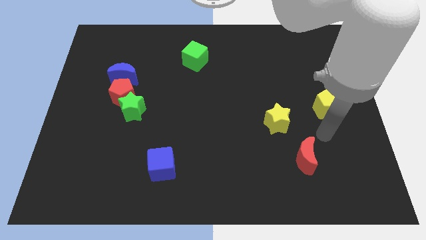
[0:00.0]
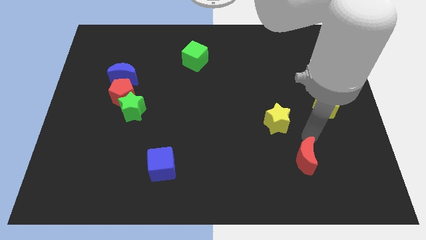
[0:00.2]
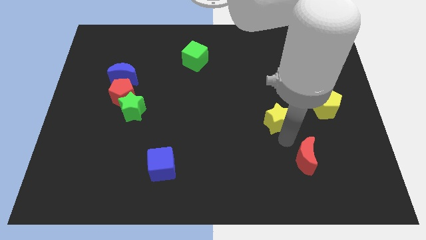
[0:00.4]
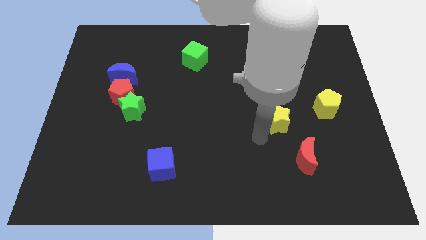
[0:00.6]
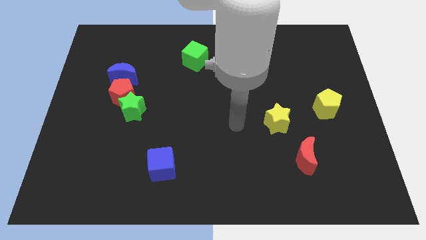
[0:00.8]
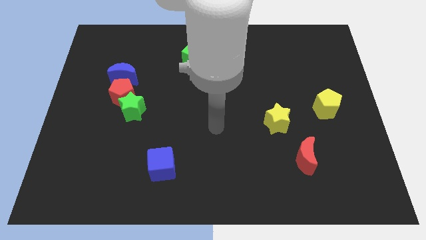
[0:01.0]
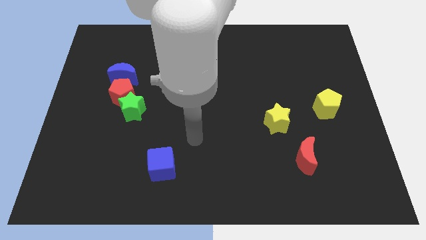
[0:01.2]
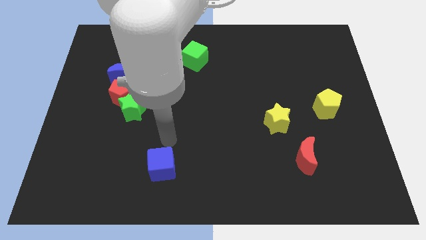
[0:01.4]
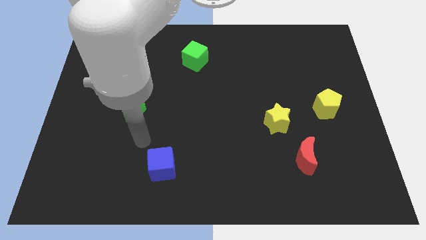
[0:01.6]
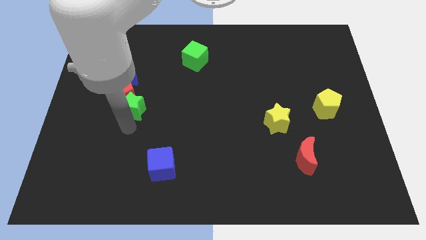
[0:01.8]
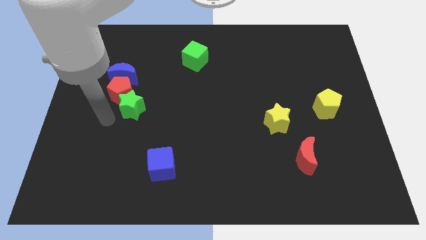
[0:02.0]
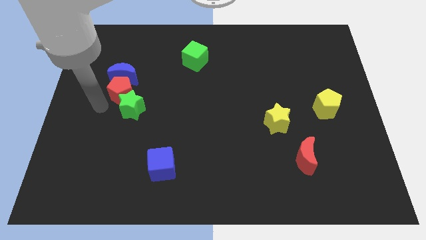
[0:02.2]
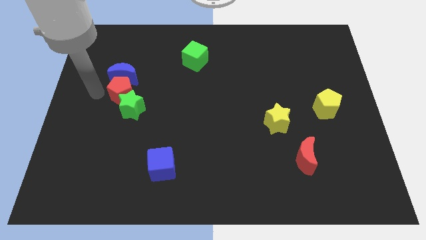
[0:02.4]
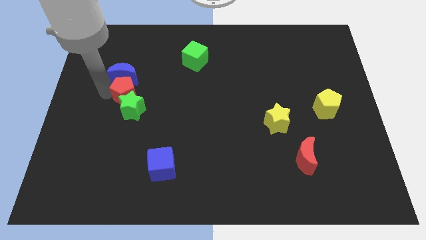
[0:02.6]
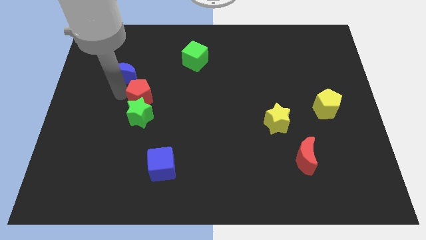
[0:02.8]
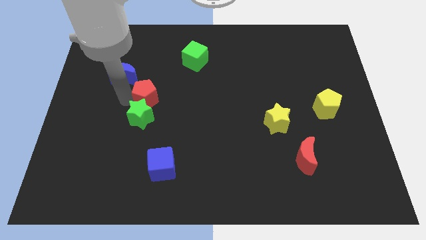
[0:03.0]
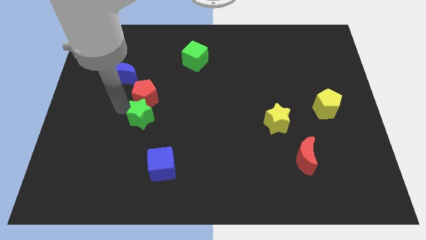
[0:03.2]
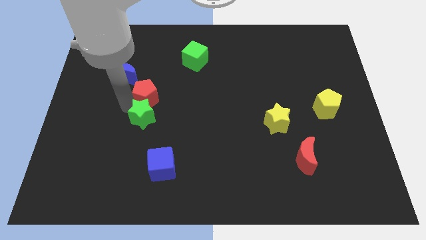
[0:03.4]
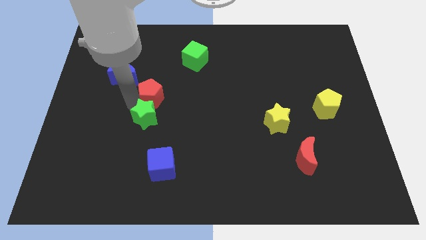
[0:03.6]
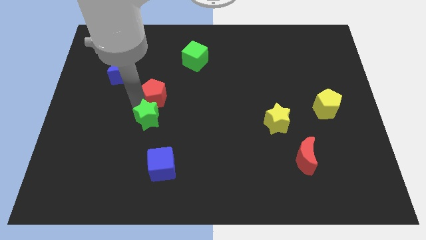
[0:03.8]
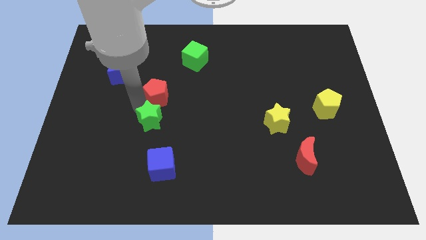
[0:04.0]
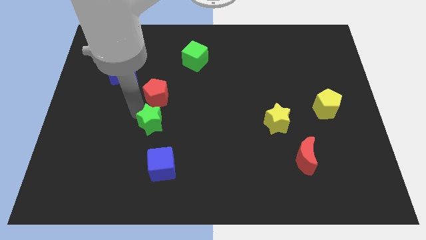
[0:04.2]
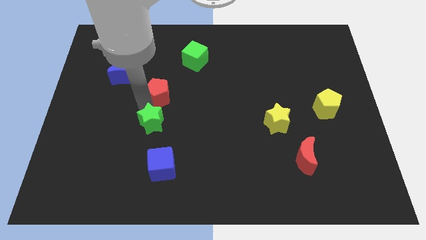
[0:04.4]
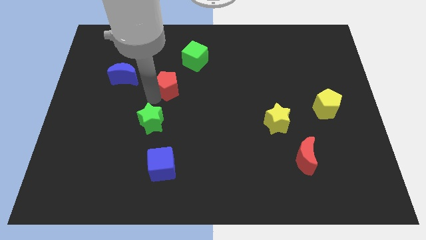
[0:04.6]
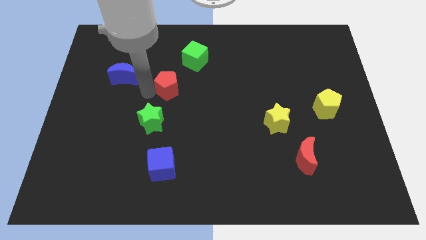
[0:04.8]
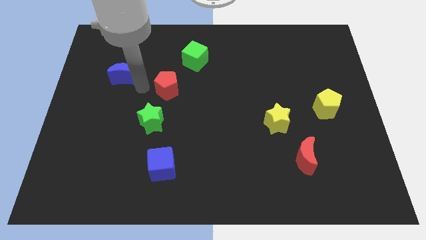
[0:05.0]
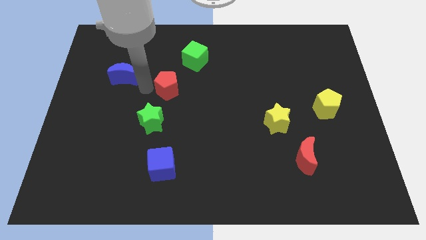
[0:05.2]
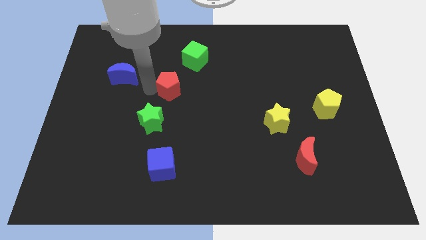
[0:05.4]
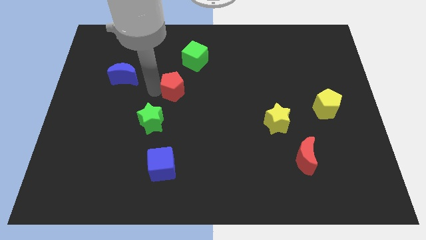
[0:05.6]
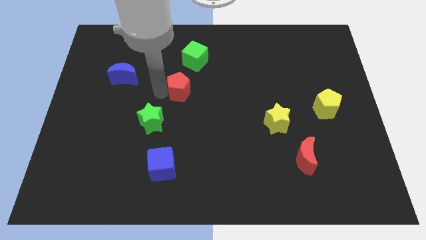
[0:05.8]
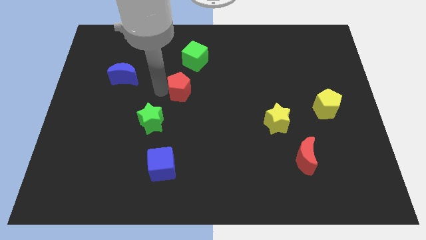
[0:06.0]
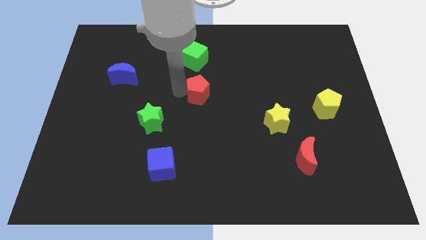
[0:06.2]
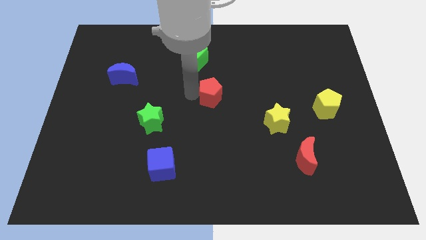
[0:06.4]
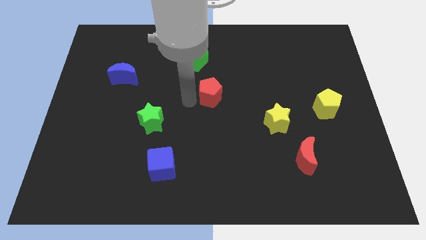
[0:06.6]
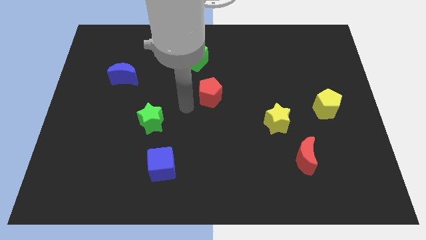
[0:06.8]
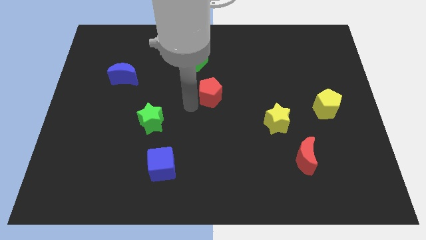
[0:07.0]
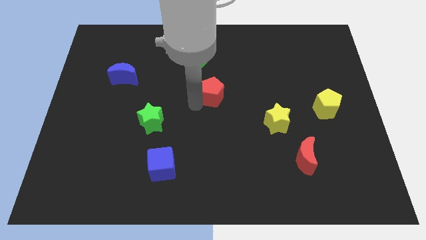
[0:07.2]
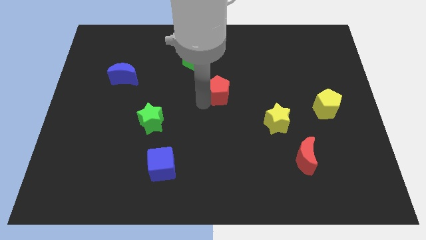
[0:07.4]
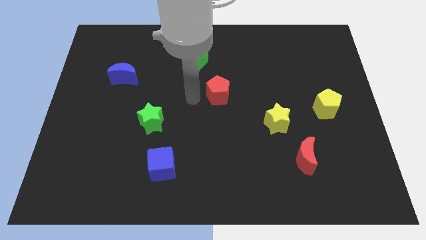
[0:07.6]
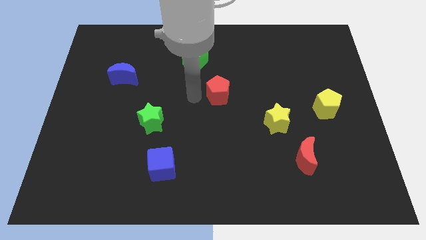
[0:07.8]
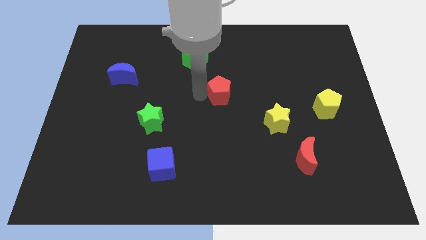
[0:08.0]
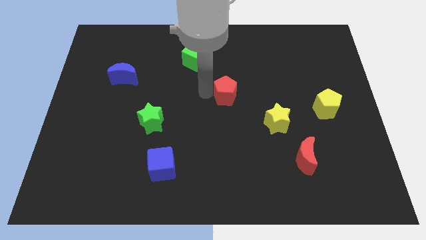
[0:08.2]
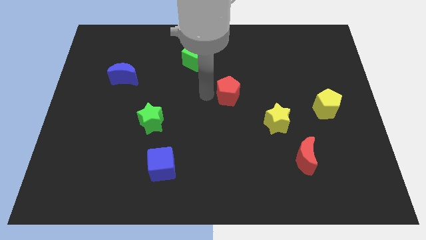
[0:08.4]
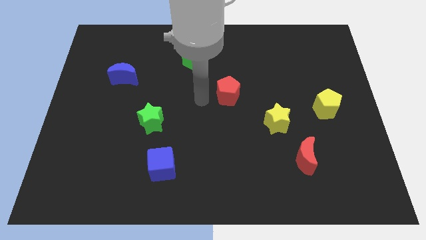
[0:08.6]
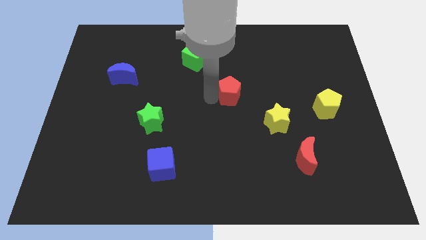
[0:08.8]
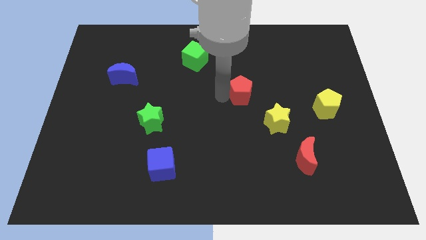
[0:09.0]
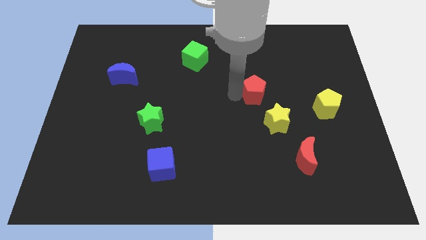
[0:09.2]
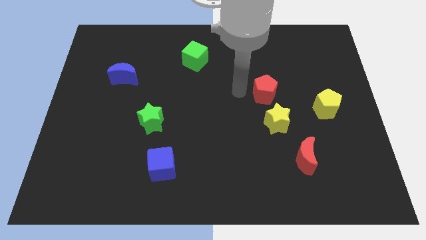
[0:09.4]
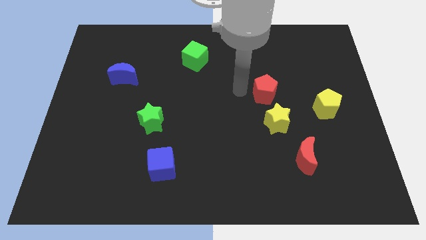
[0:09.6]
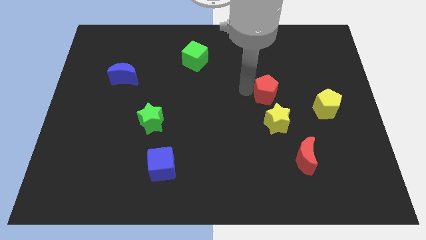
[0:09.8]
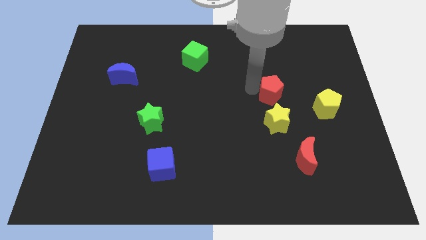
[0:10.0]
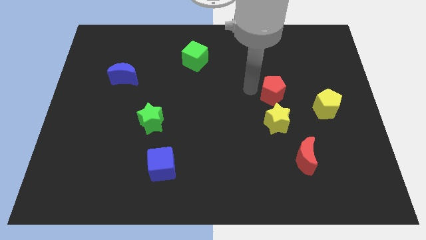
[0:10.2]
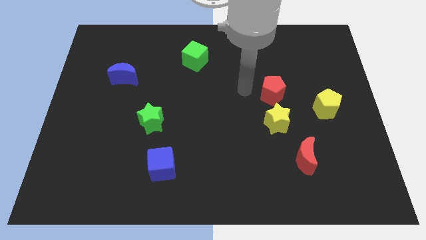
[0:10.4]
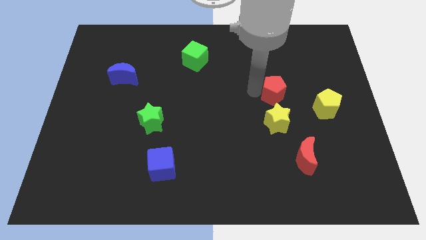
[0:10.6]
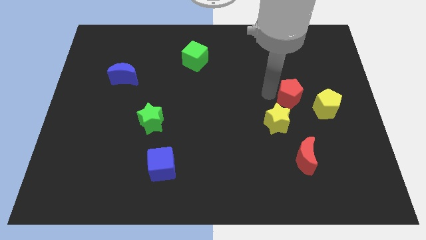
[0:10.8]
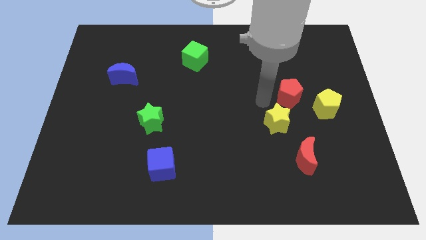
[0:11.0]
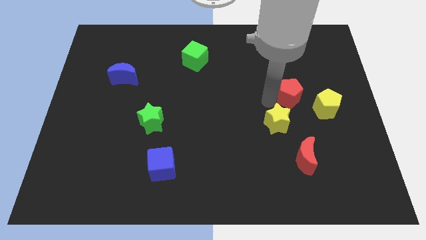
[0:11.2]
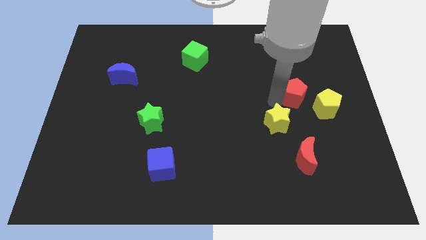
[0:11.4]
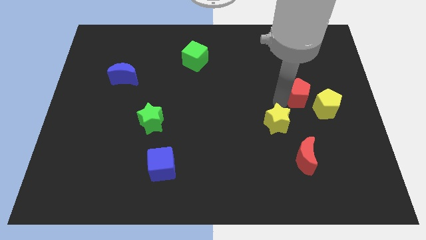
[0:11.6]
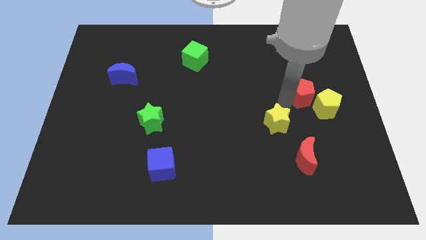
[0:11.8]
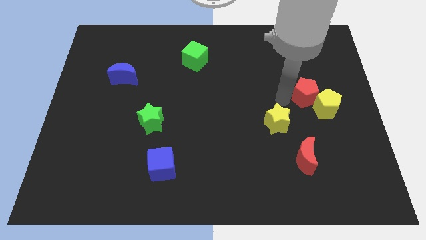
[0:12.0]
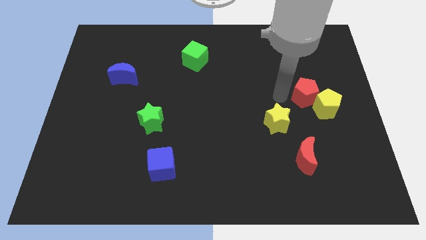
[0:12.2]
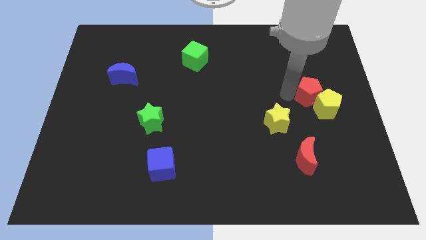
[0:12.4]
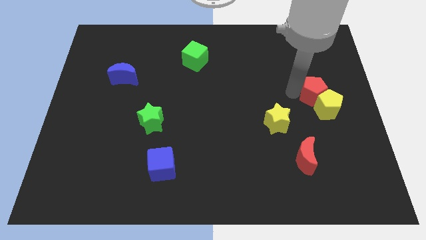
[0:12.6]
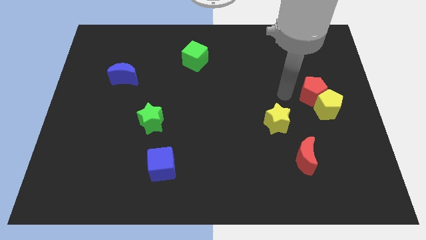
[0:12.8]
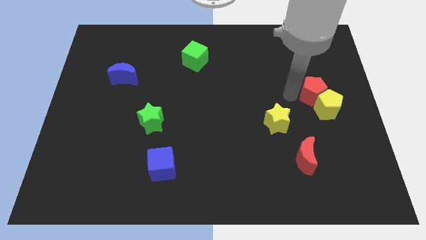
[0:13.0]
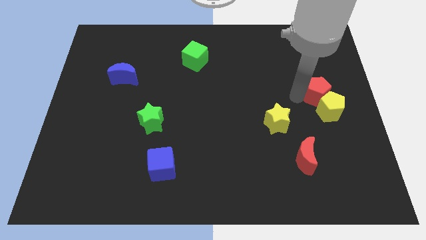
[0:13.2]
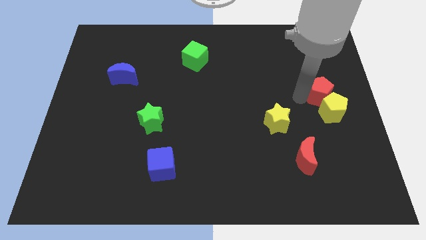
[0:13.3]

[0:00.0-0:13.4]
slide the red pentagon to the center right
